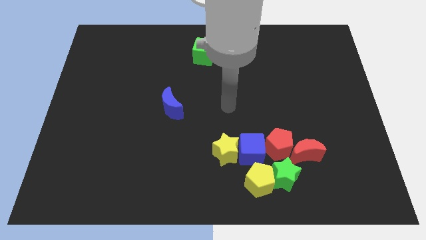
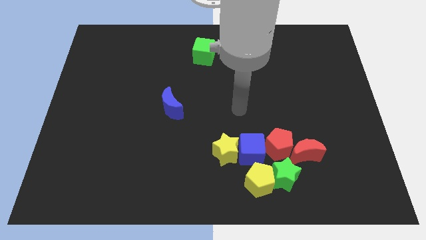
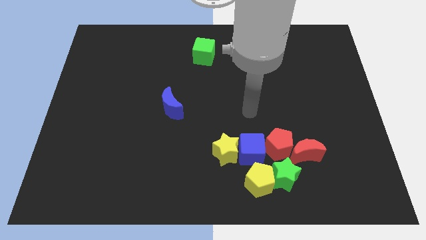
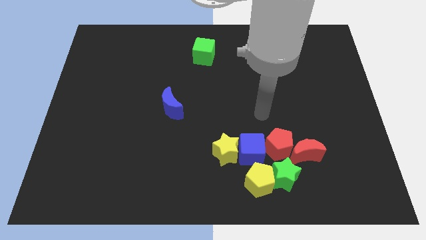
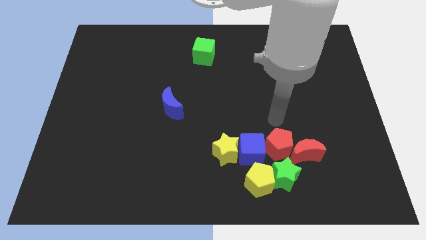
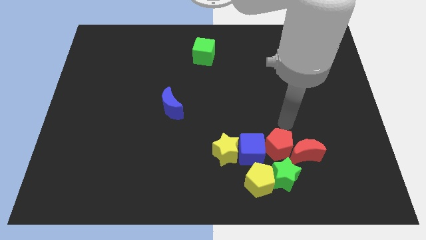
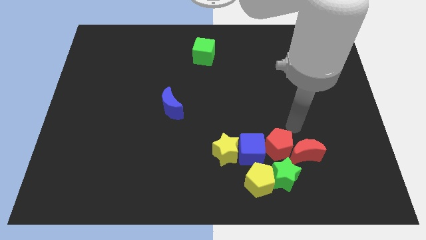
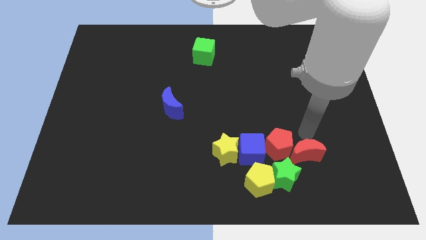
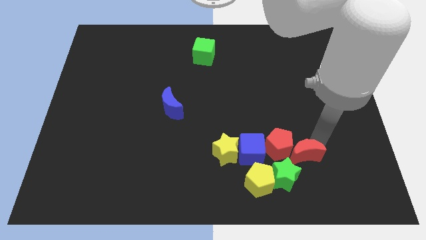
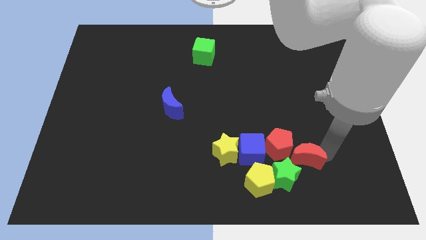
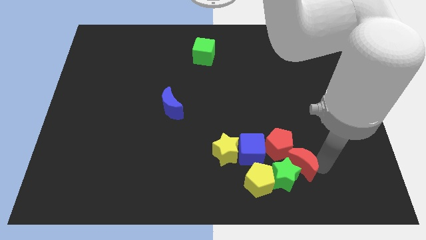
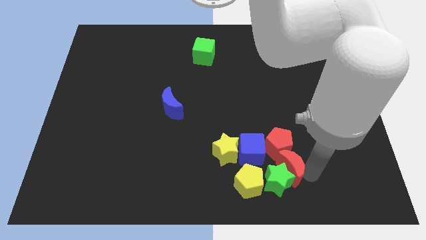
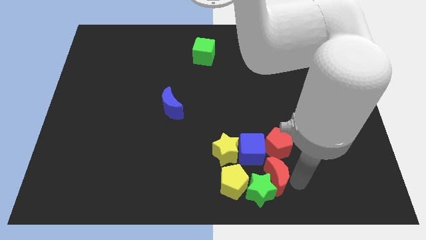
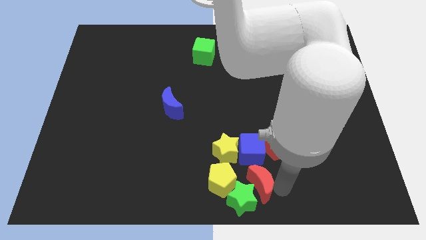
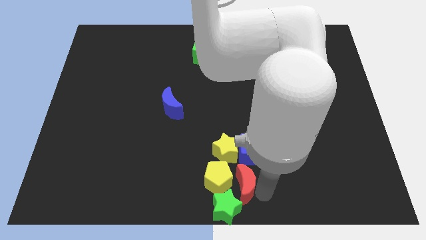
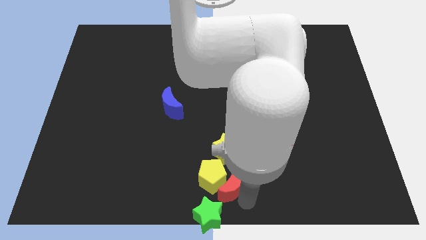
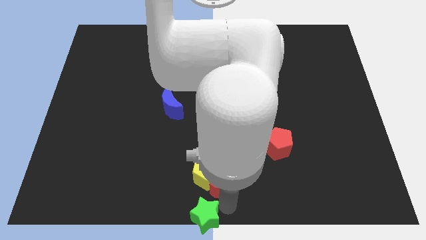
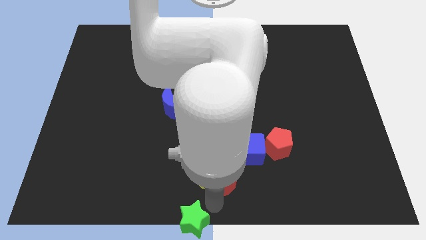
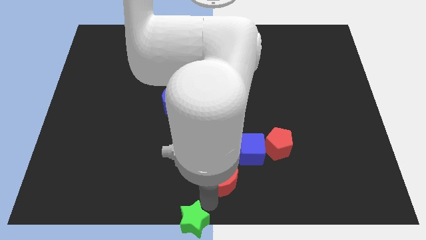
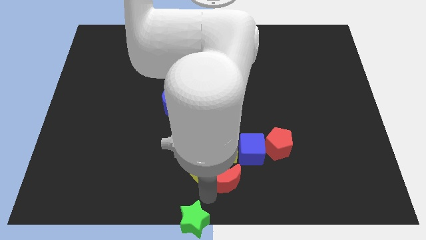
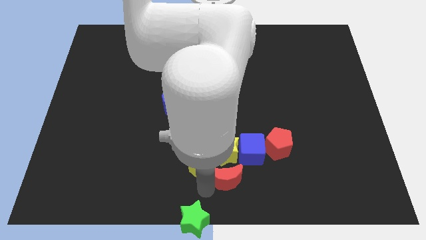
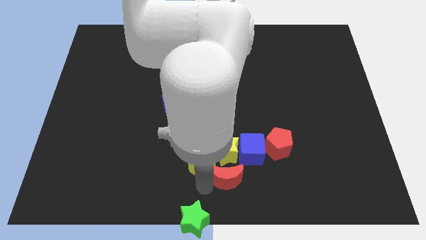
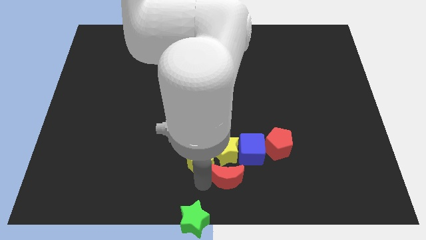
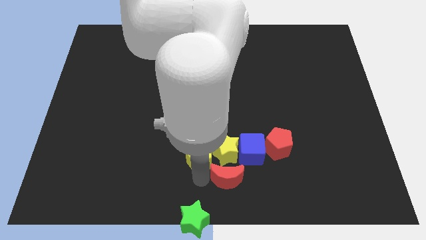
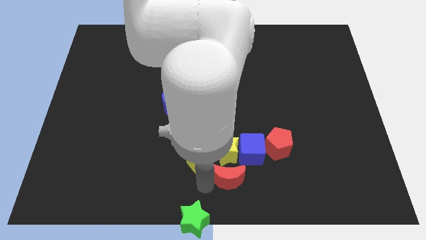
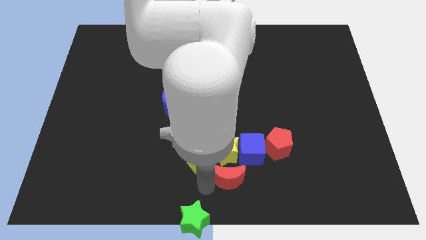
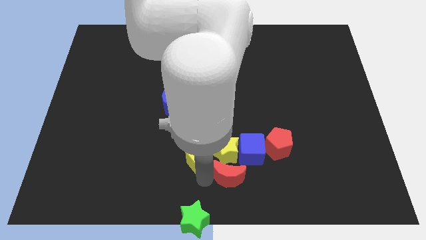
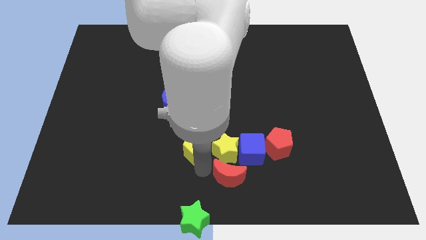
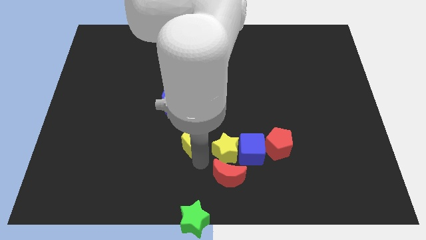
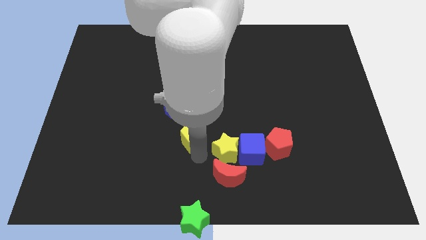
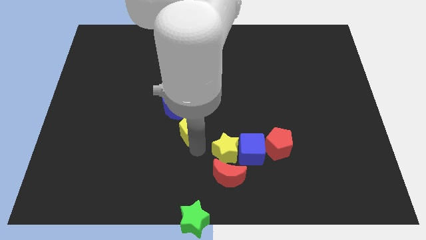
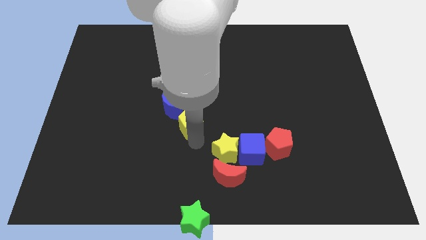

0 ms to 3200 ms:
push the yellow pentagon upwards and left diagonally

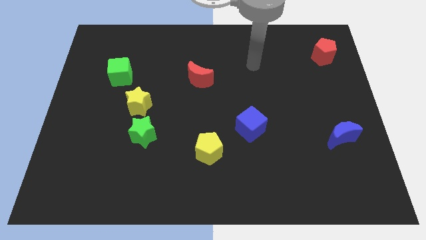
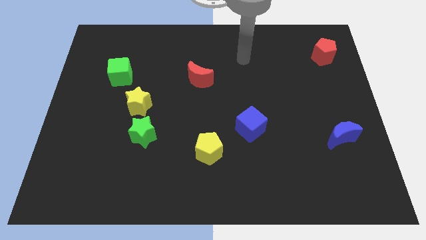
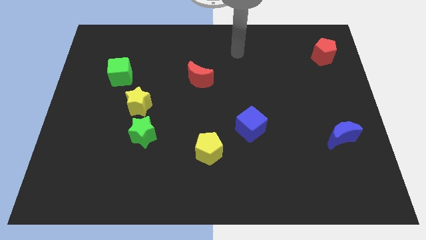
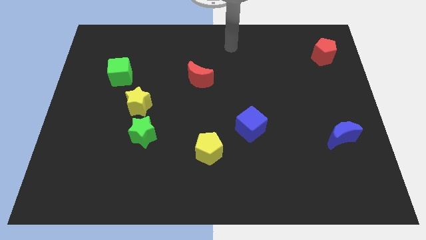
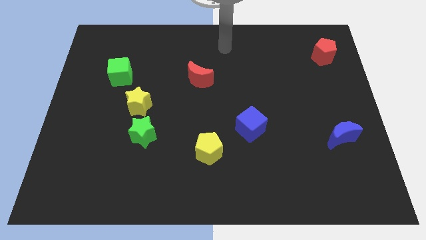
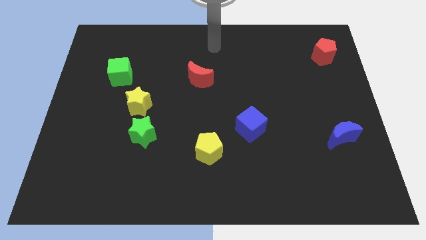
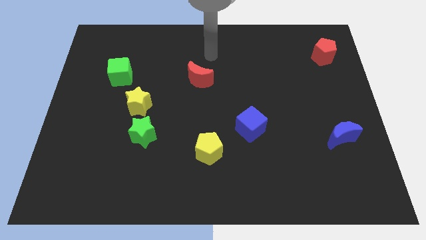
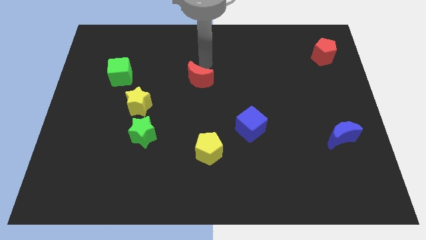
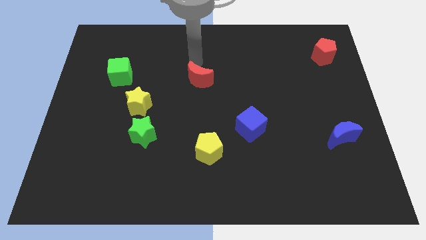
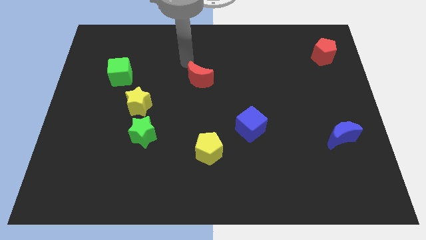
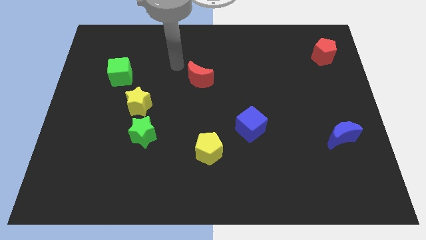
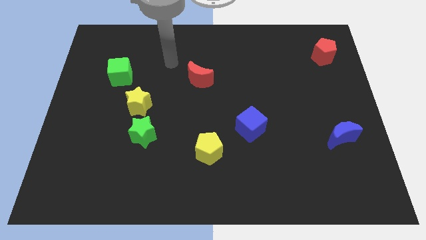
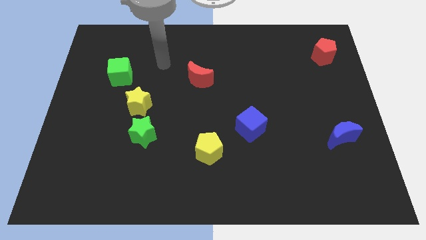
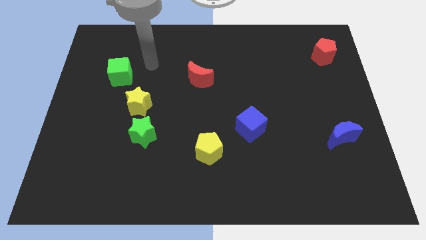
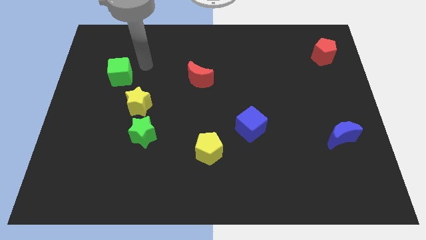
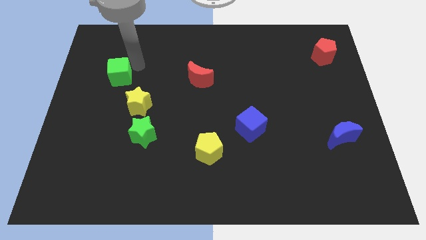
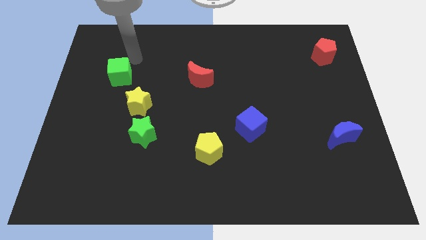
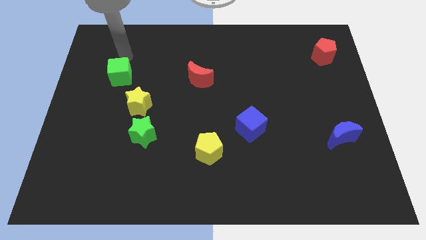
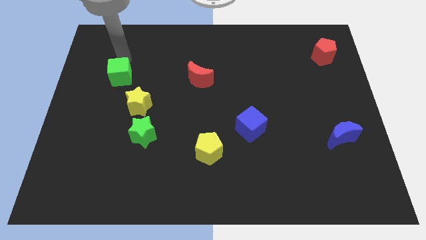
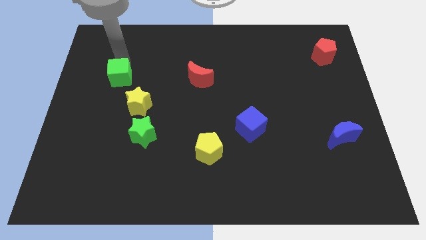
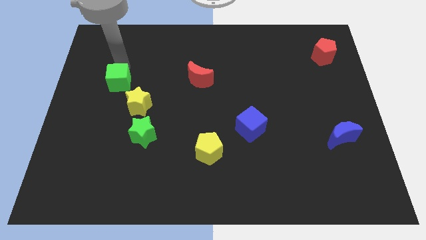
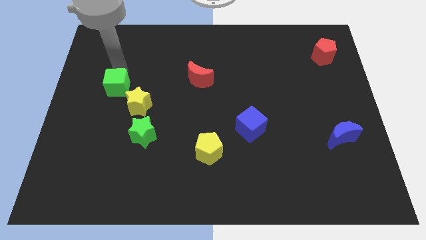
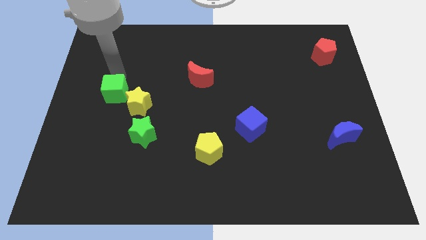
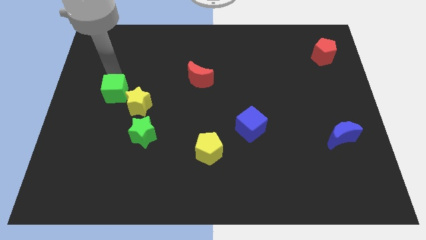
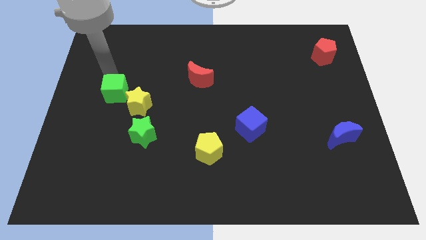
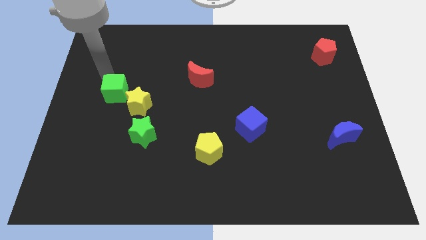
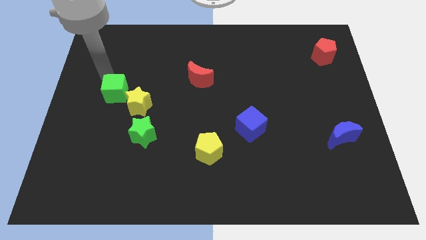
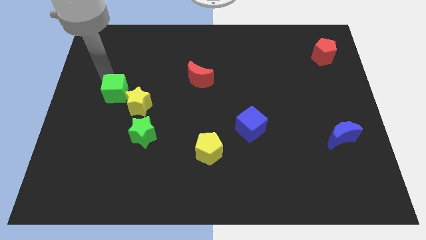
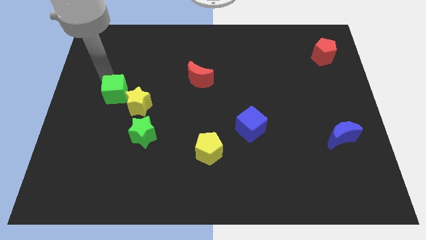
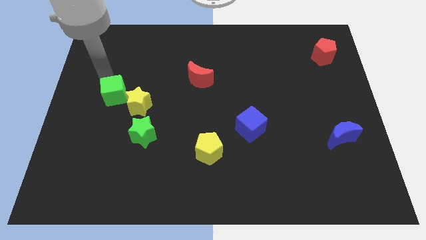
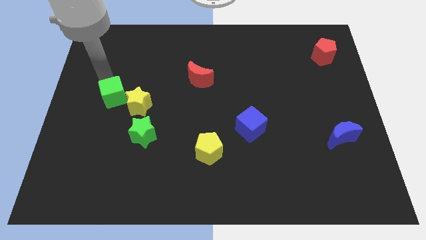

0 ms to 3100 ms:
slightly push the green cube down

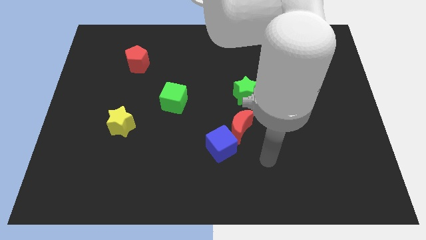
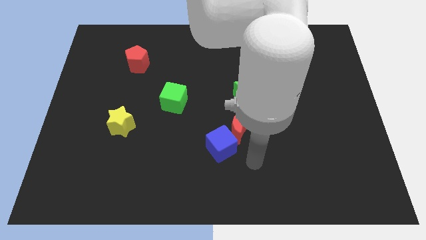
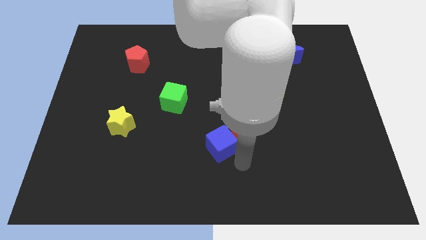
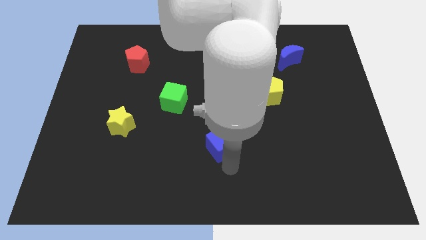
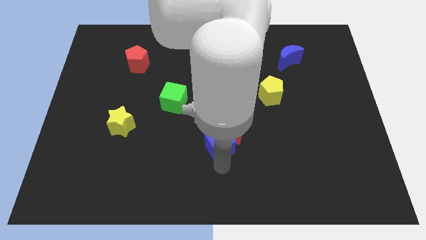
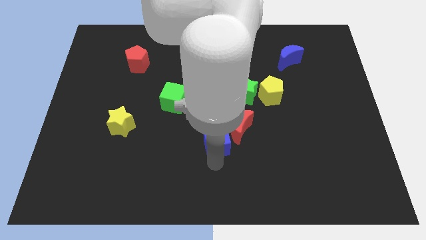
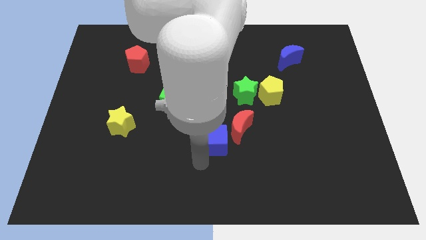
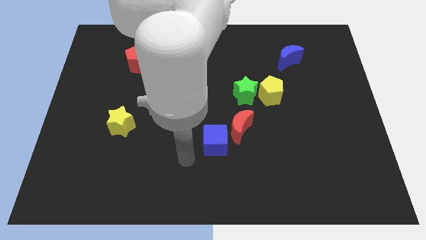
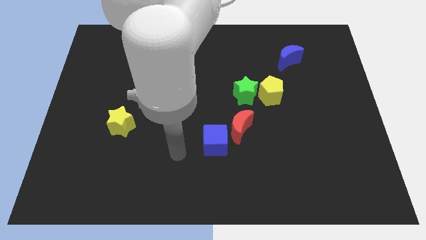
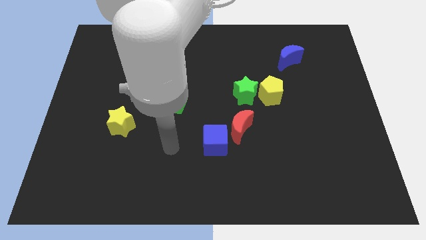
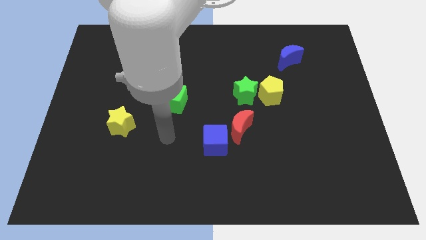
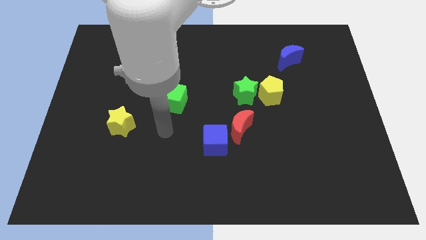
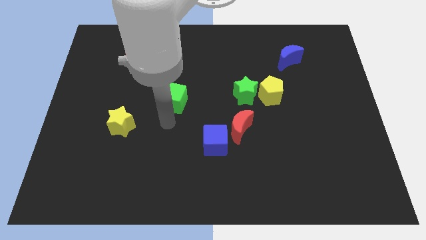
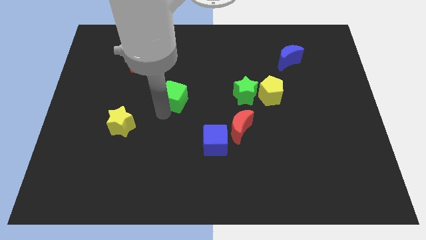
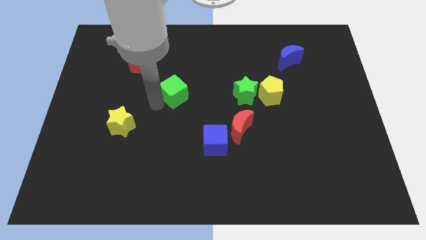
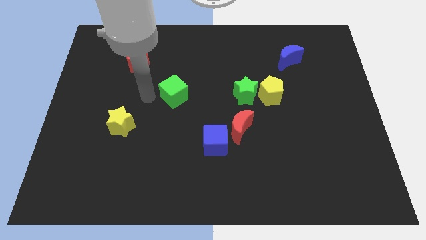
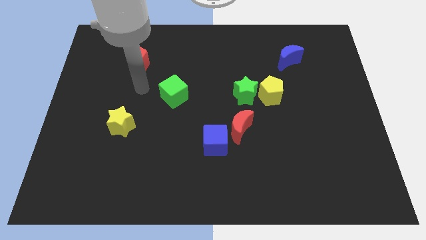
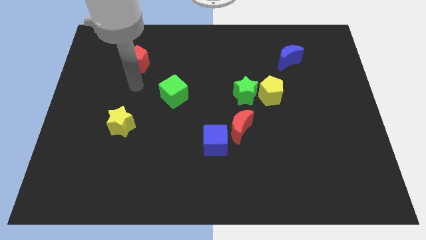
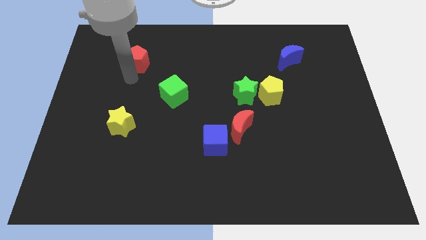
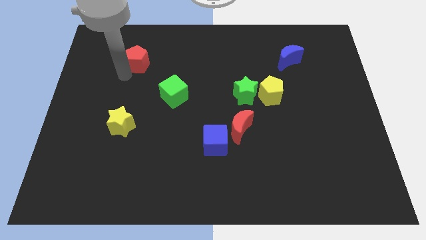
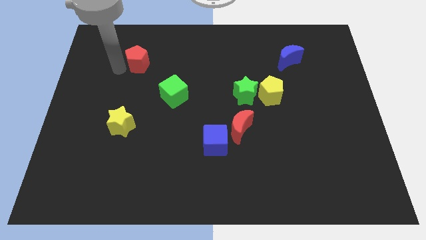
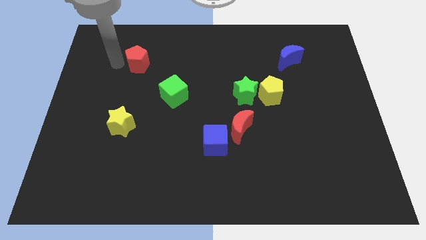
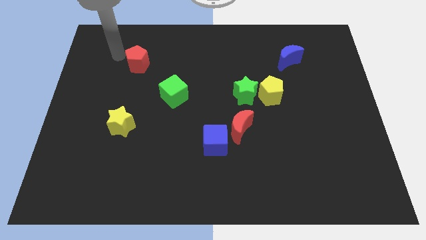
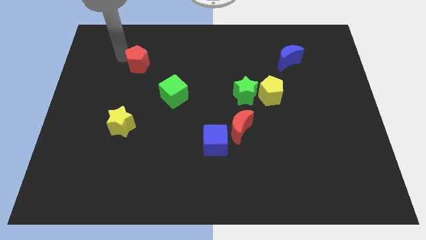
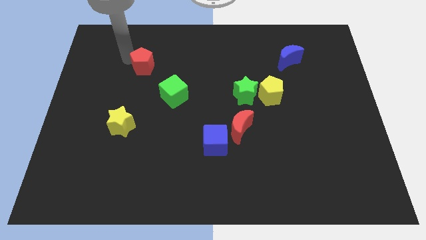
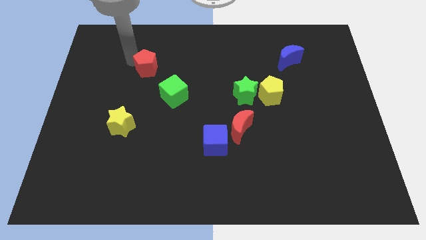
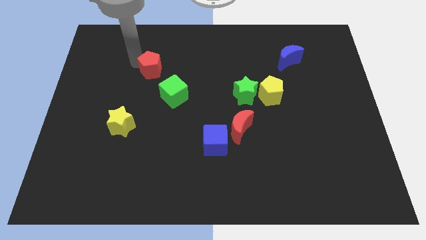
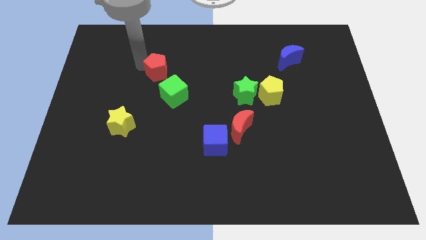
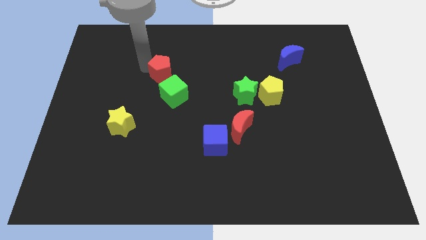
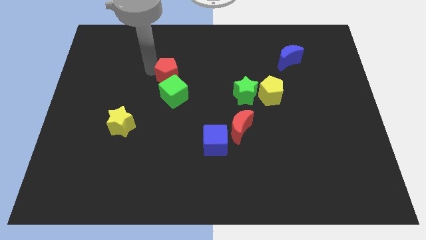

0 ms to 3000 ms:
push the red pentagon right somewhat
